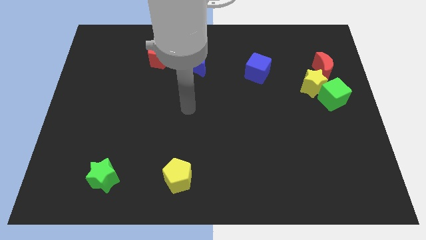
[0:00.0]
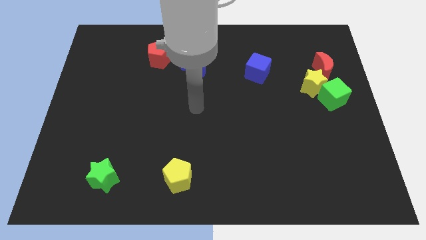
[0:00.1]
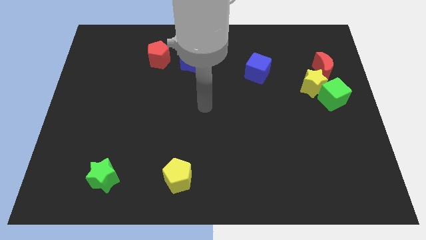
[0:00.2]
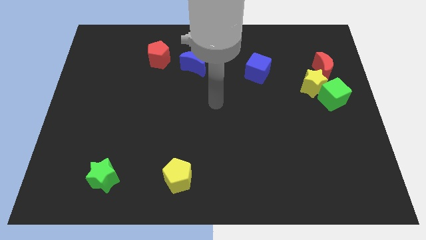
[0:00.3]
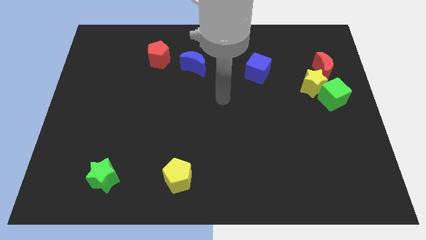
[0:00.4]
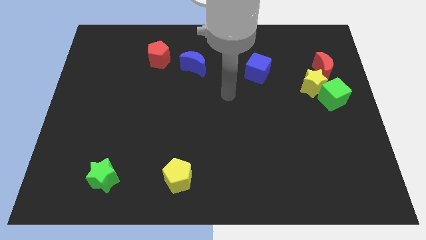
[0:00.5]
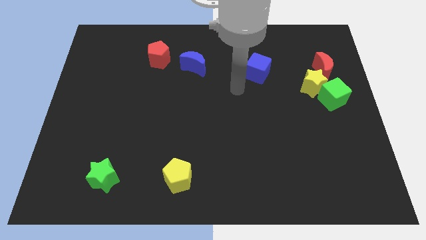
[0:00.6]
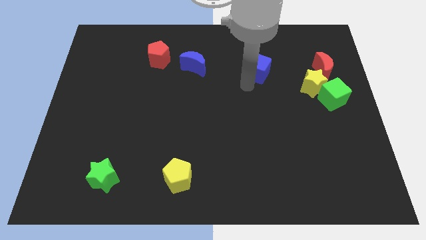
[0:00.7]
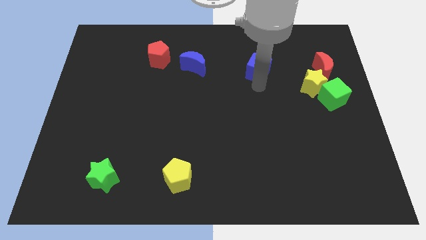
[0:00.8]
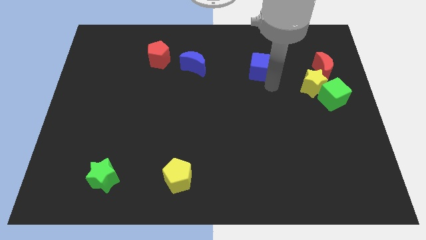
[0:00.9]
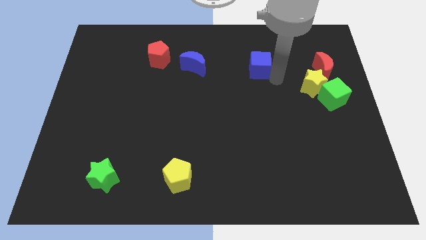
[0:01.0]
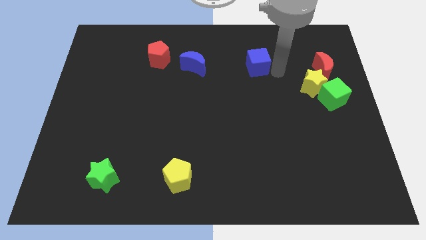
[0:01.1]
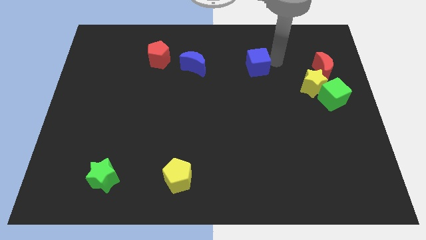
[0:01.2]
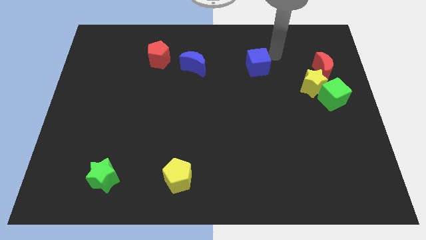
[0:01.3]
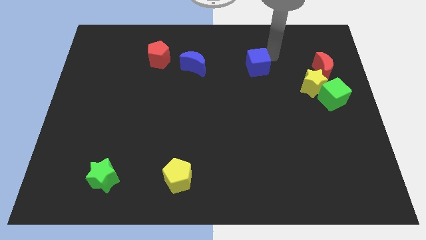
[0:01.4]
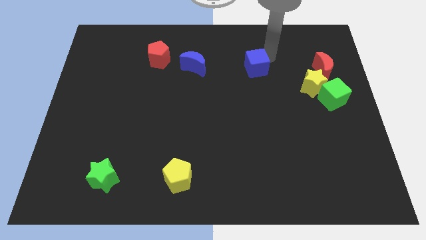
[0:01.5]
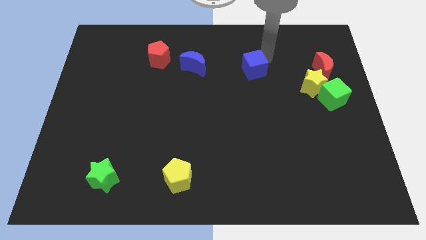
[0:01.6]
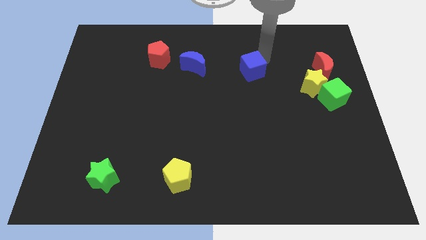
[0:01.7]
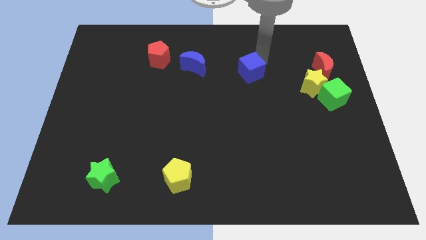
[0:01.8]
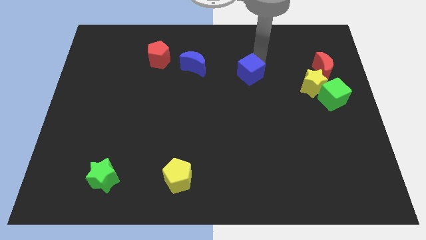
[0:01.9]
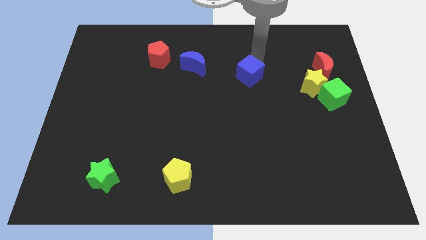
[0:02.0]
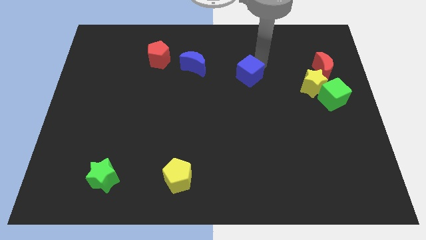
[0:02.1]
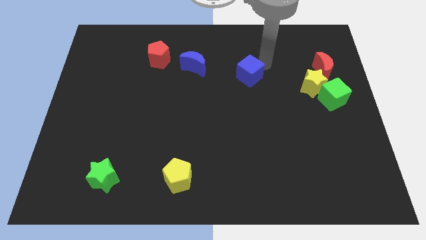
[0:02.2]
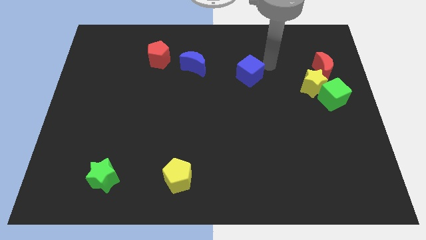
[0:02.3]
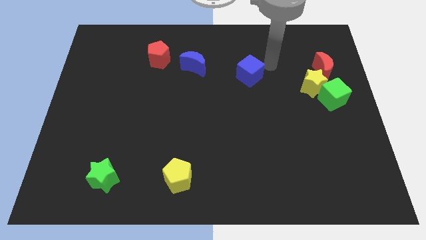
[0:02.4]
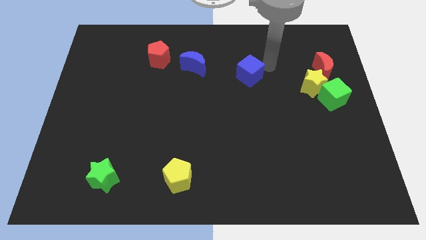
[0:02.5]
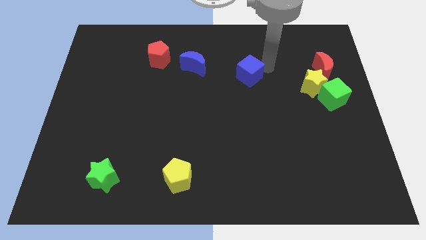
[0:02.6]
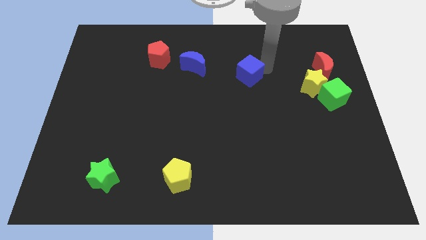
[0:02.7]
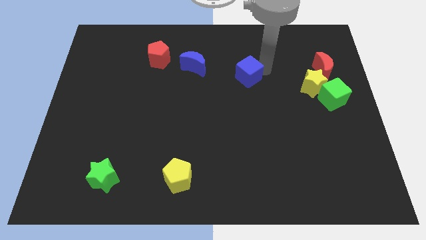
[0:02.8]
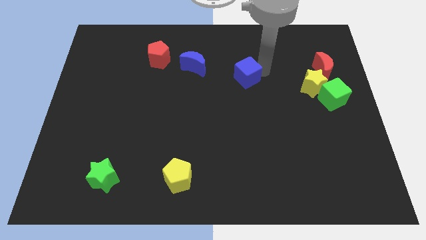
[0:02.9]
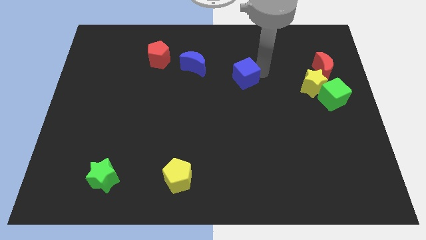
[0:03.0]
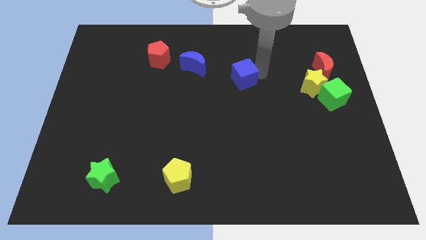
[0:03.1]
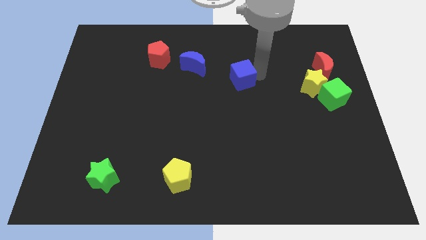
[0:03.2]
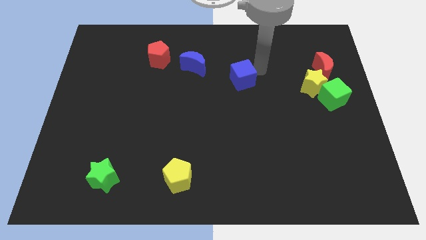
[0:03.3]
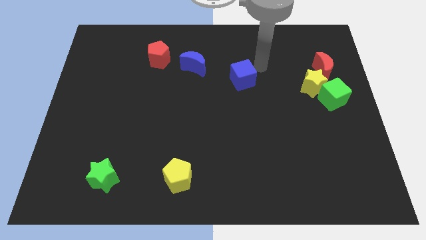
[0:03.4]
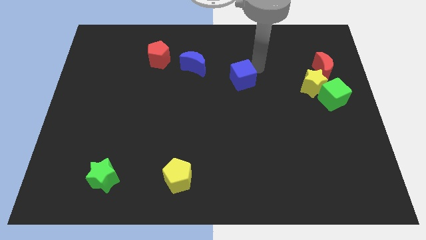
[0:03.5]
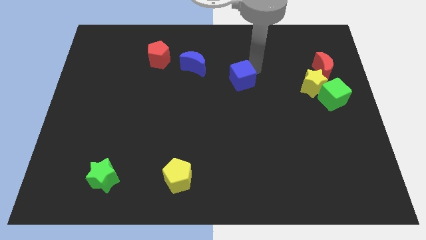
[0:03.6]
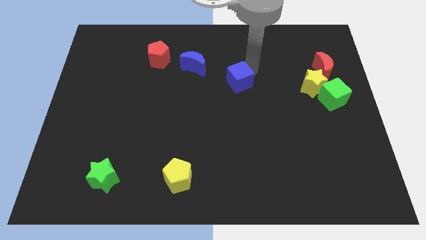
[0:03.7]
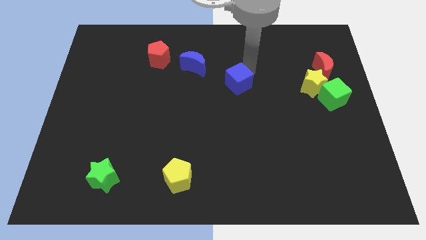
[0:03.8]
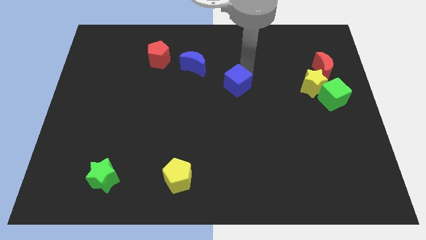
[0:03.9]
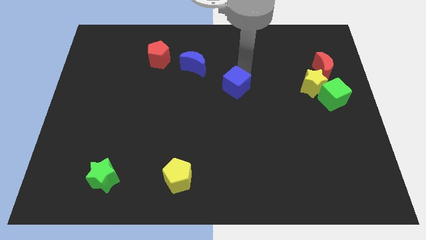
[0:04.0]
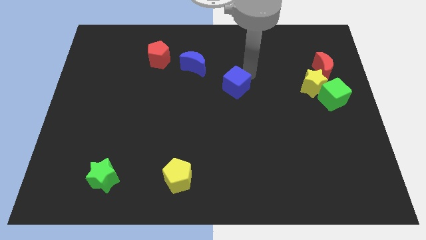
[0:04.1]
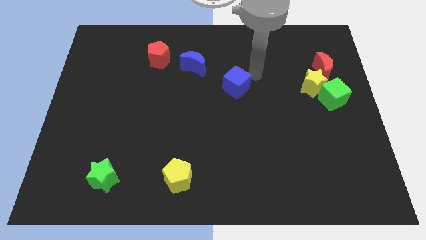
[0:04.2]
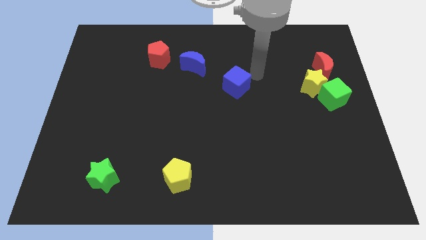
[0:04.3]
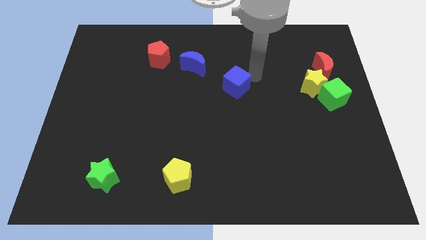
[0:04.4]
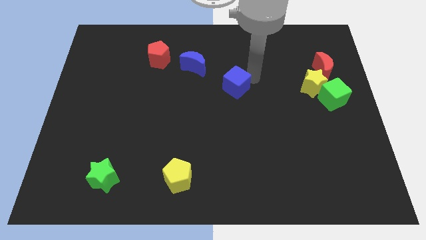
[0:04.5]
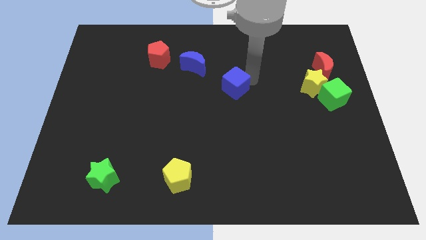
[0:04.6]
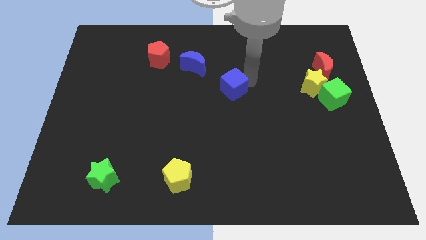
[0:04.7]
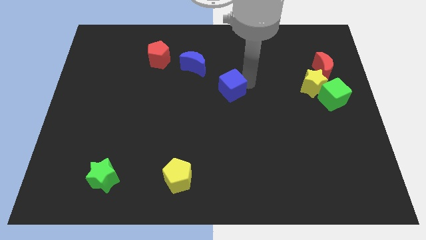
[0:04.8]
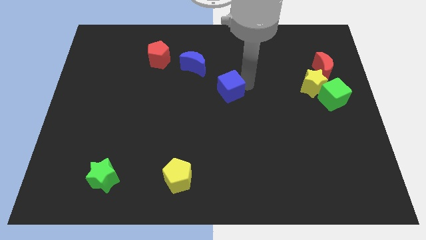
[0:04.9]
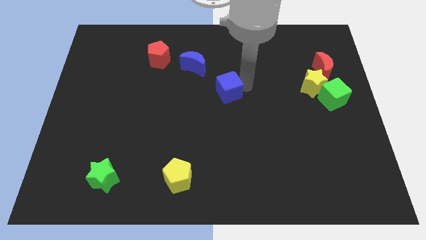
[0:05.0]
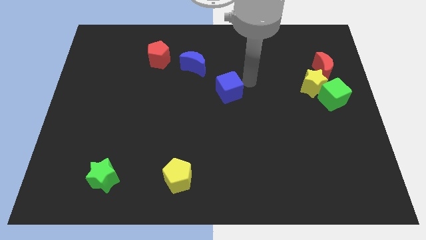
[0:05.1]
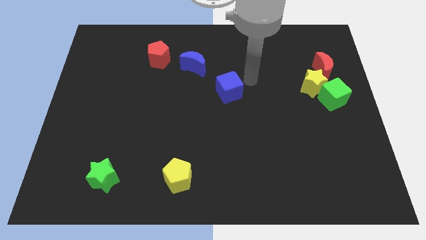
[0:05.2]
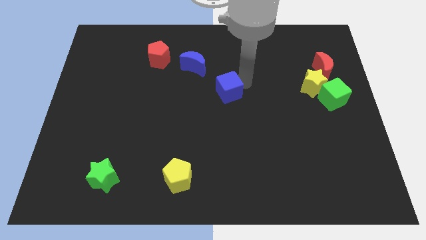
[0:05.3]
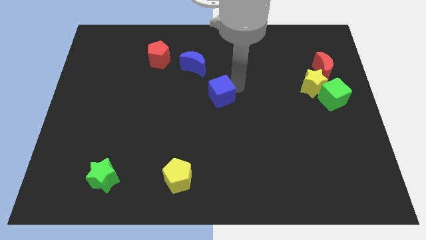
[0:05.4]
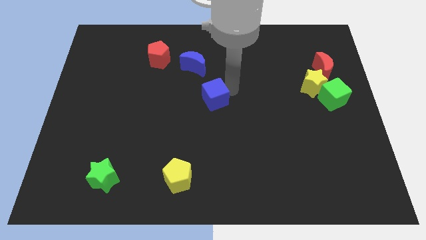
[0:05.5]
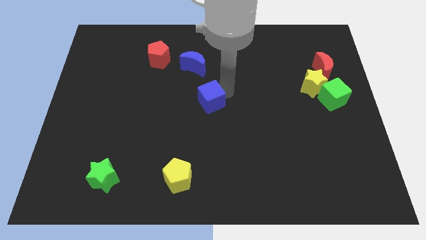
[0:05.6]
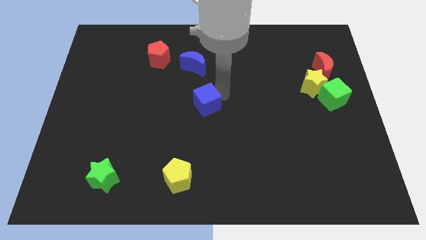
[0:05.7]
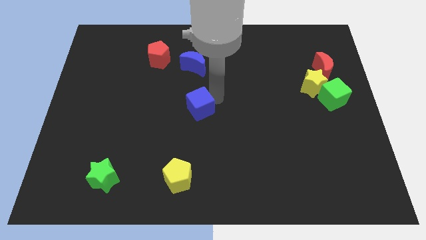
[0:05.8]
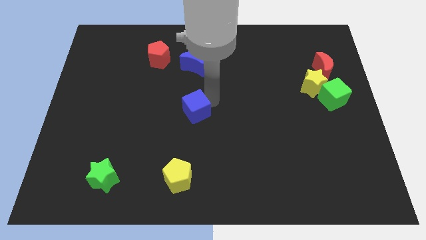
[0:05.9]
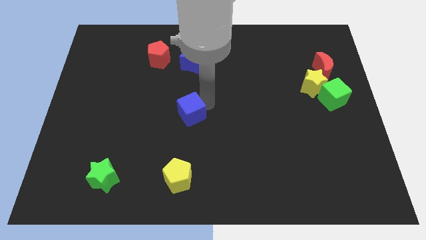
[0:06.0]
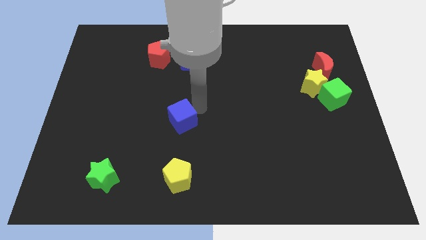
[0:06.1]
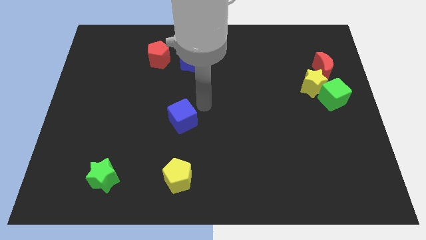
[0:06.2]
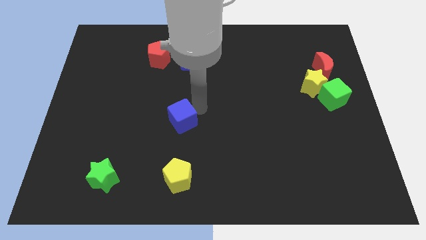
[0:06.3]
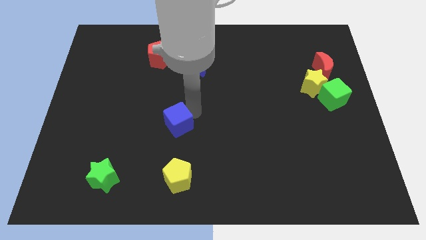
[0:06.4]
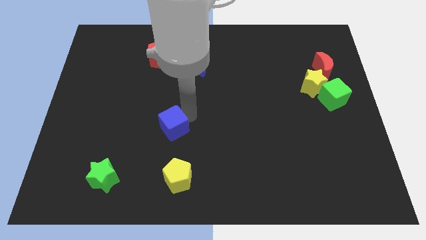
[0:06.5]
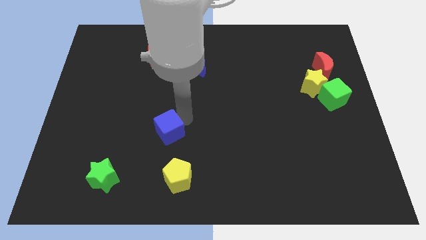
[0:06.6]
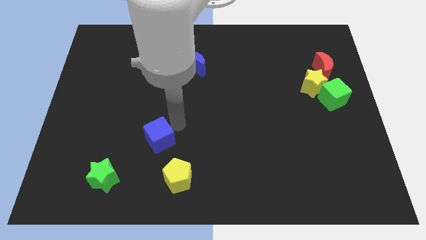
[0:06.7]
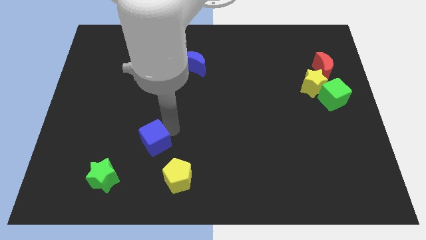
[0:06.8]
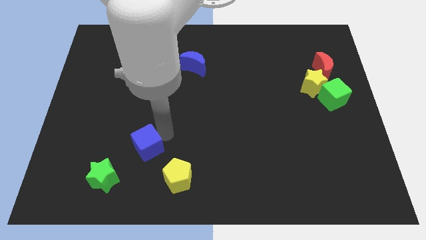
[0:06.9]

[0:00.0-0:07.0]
slide the blue cube diagonally up and to the right of the green star
